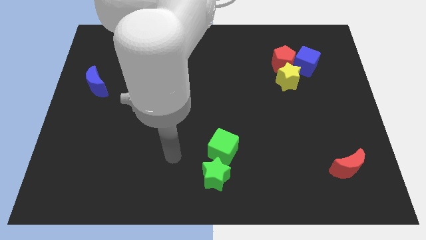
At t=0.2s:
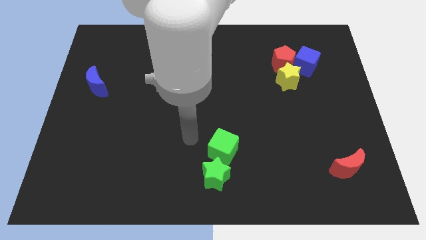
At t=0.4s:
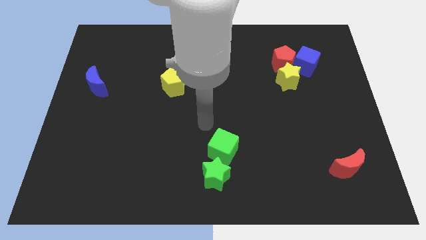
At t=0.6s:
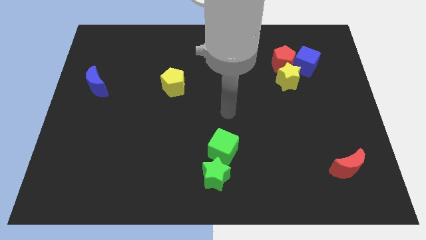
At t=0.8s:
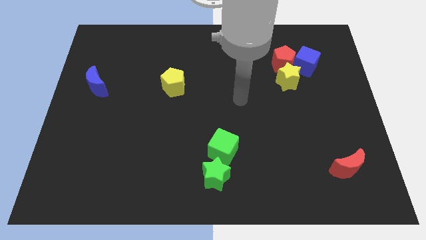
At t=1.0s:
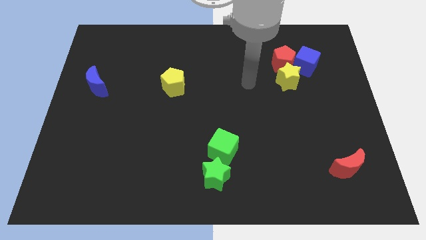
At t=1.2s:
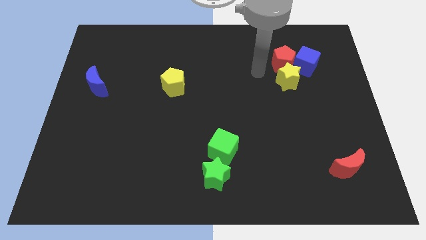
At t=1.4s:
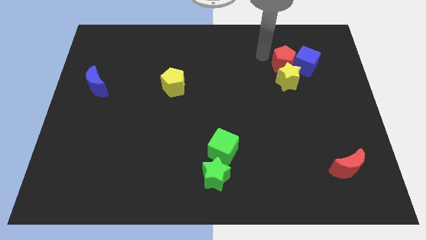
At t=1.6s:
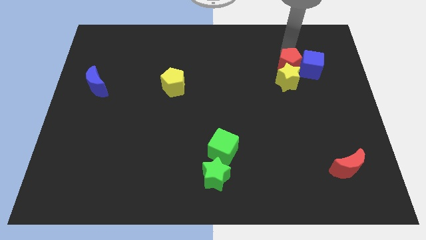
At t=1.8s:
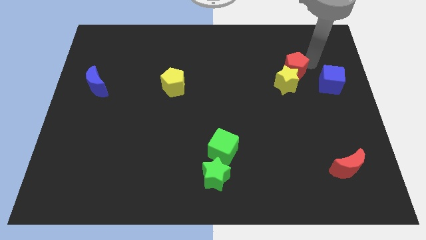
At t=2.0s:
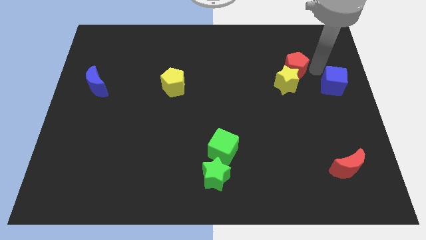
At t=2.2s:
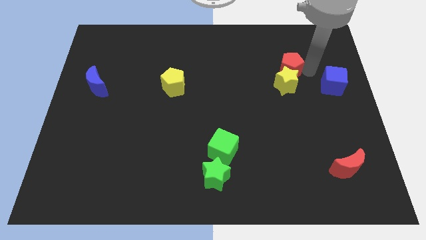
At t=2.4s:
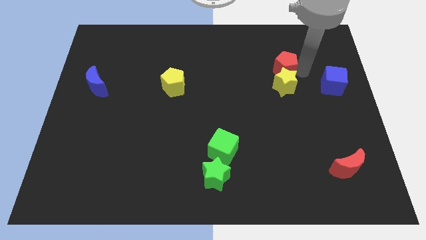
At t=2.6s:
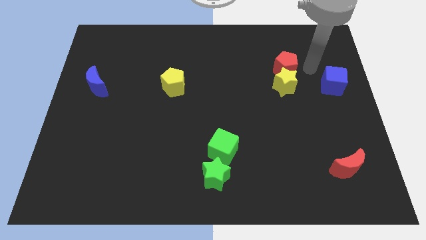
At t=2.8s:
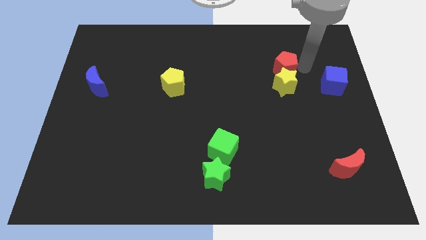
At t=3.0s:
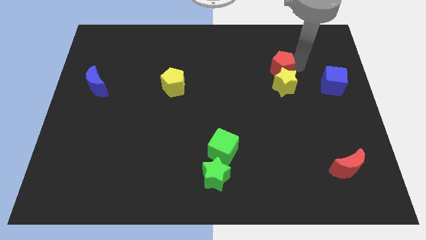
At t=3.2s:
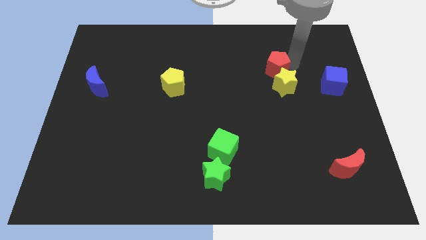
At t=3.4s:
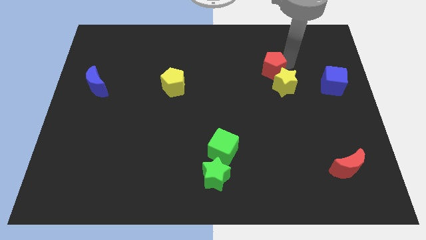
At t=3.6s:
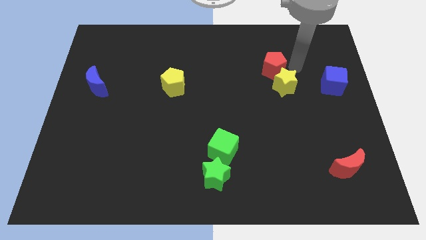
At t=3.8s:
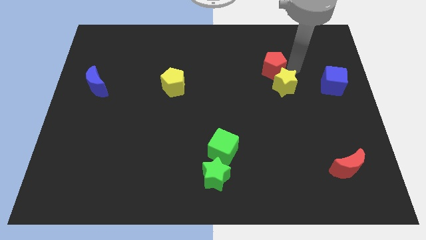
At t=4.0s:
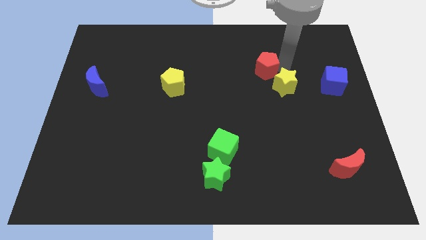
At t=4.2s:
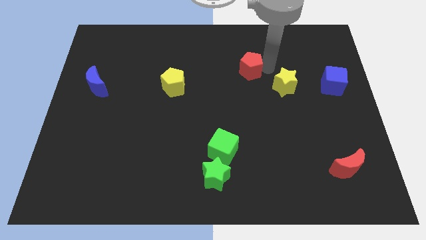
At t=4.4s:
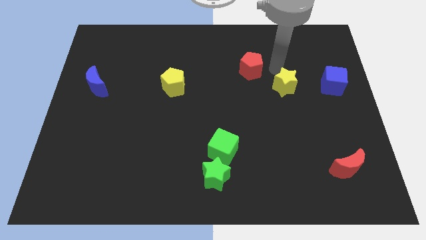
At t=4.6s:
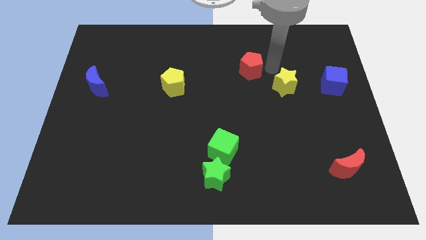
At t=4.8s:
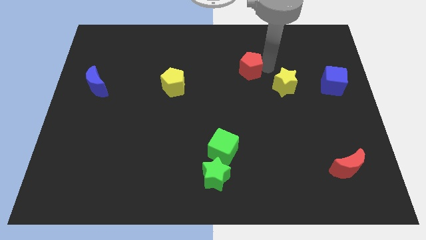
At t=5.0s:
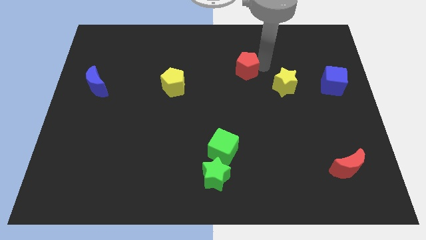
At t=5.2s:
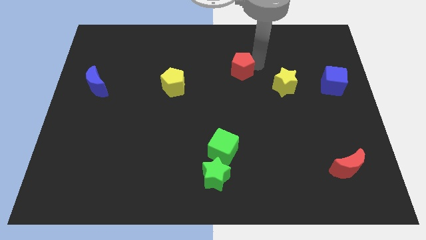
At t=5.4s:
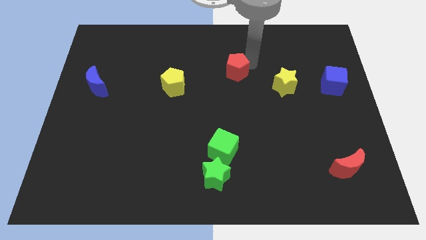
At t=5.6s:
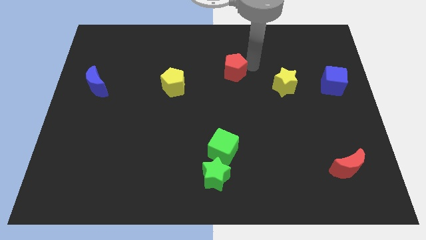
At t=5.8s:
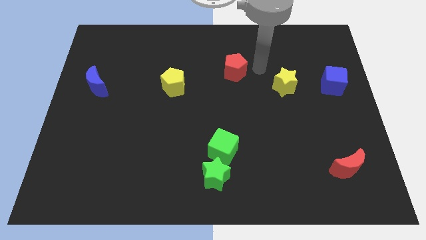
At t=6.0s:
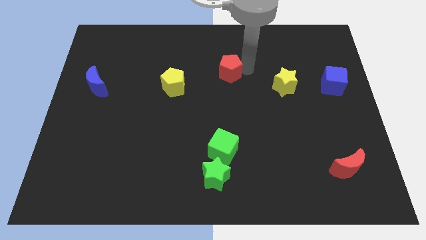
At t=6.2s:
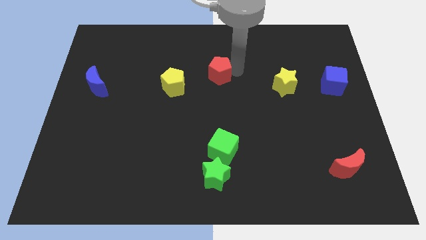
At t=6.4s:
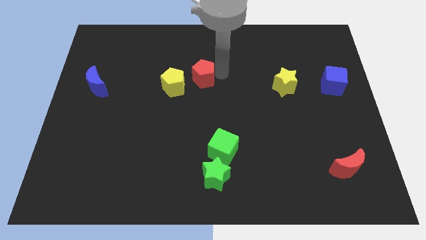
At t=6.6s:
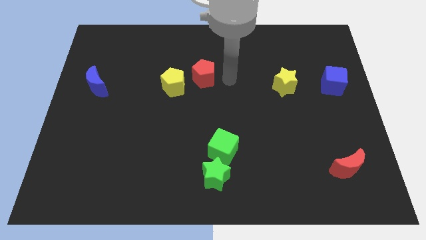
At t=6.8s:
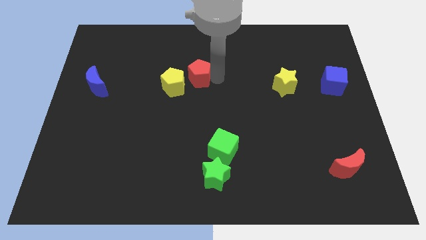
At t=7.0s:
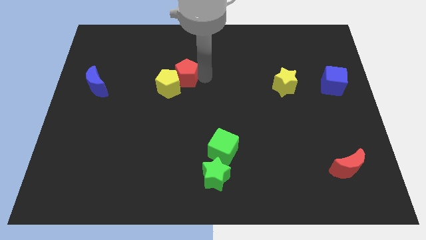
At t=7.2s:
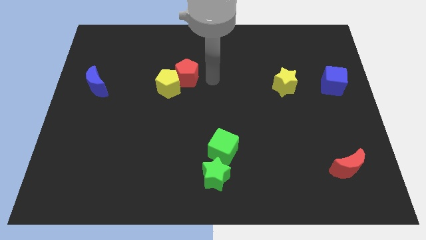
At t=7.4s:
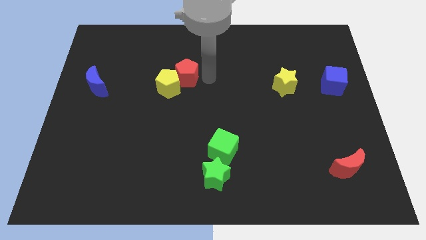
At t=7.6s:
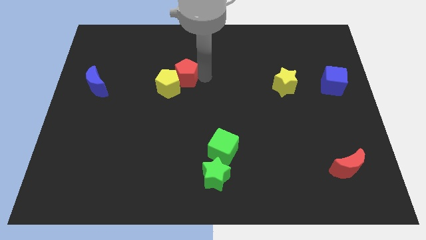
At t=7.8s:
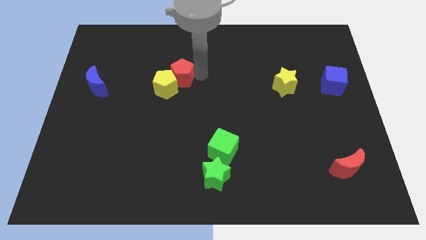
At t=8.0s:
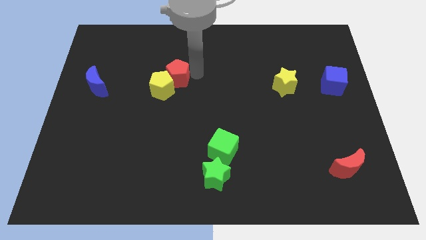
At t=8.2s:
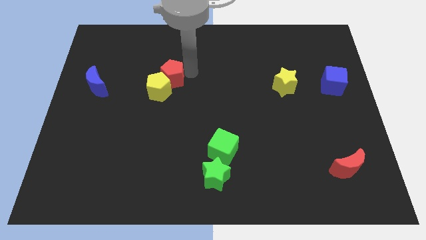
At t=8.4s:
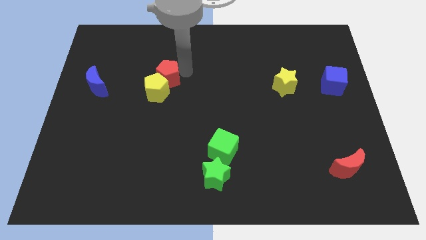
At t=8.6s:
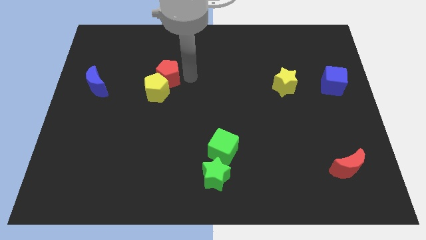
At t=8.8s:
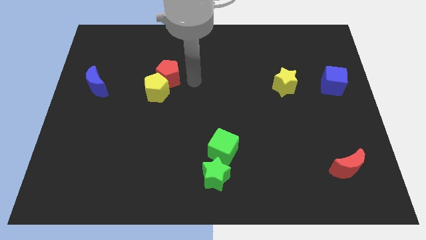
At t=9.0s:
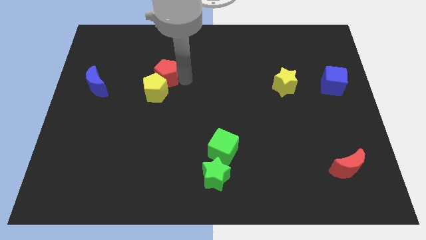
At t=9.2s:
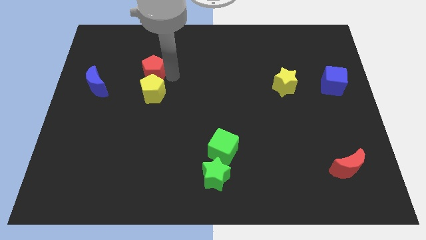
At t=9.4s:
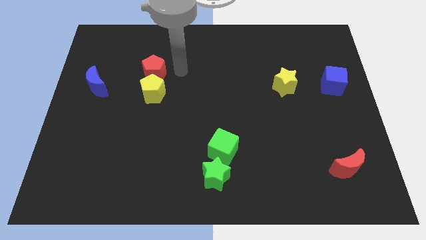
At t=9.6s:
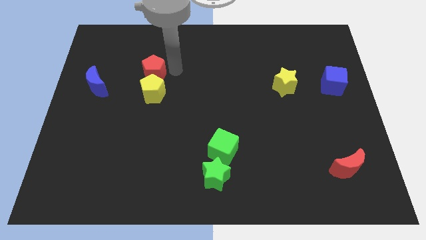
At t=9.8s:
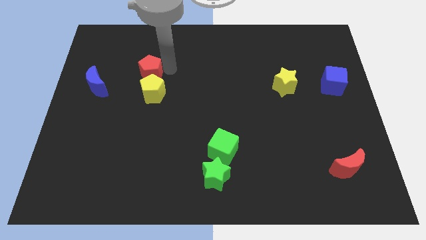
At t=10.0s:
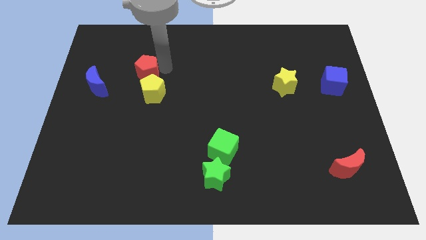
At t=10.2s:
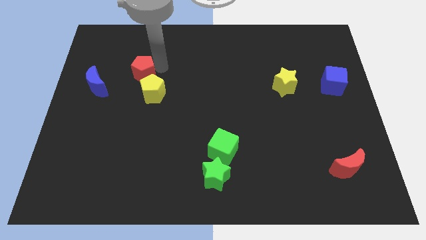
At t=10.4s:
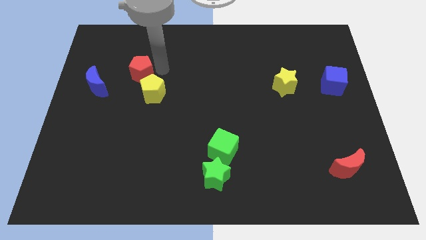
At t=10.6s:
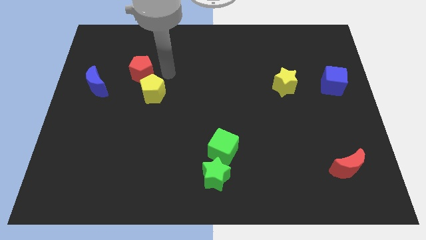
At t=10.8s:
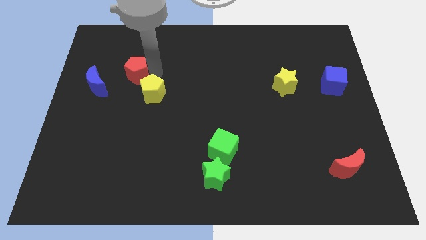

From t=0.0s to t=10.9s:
push the red pentagon diagonally up and to the right of the blue moon
